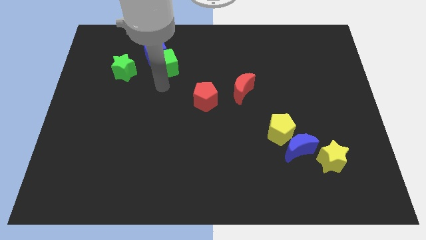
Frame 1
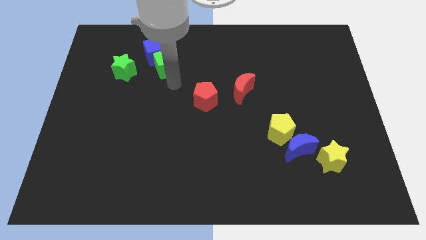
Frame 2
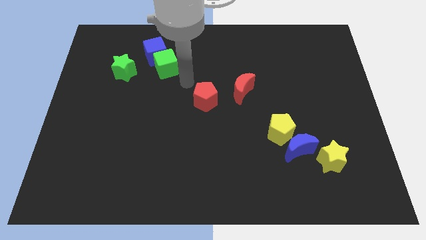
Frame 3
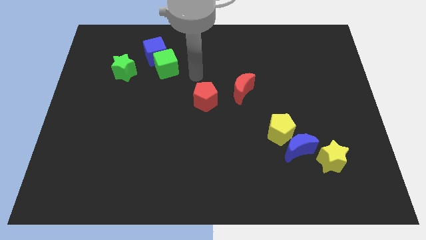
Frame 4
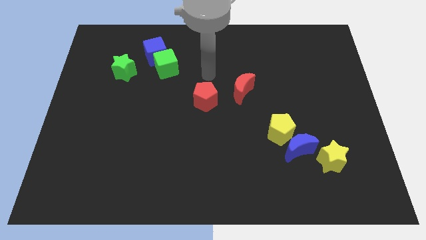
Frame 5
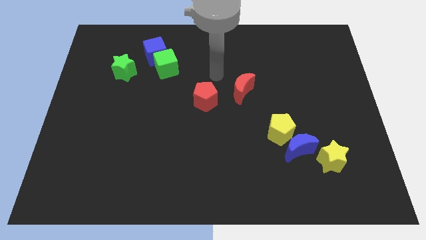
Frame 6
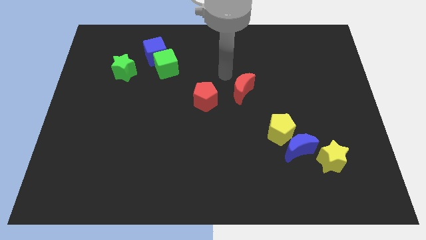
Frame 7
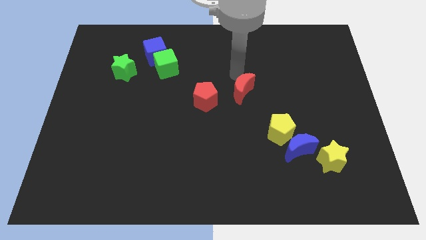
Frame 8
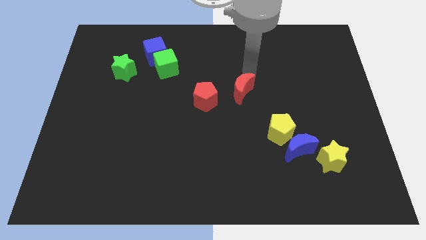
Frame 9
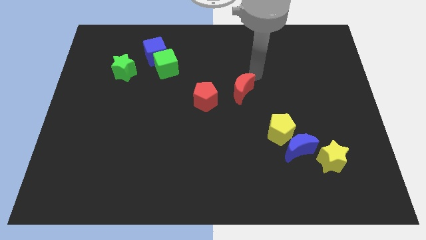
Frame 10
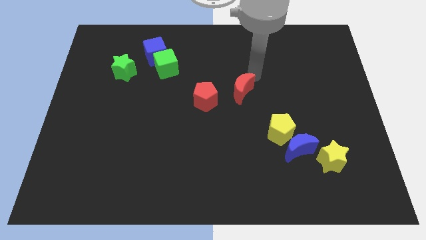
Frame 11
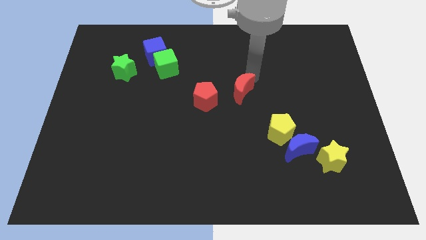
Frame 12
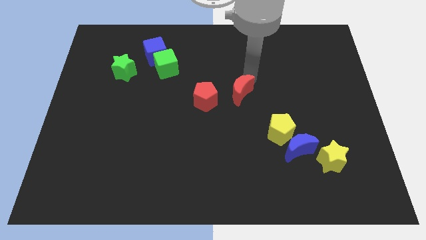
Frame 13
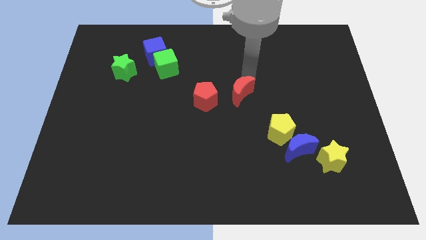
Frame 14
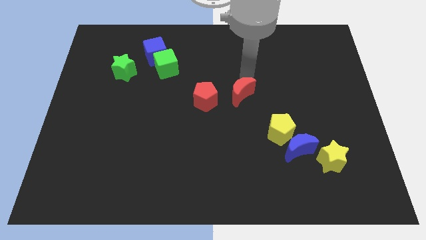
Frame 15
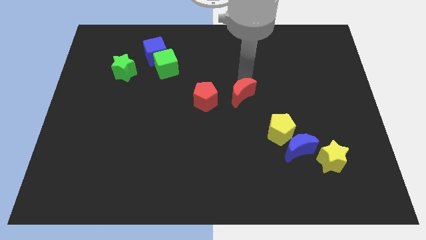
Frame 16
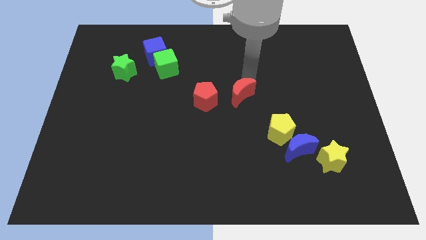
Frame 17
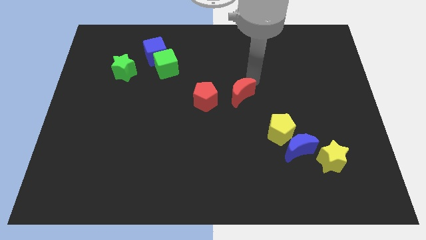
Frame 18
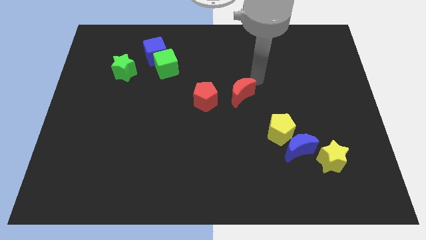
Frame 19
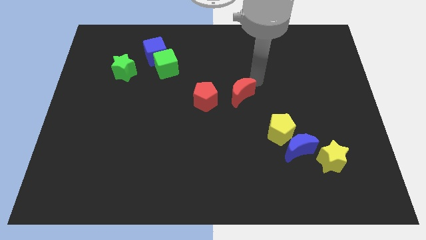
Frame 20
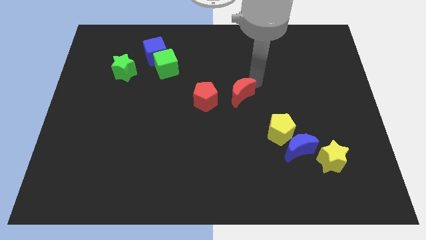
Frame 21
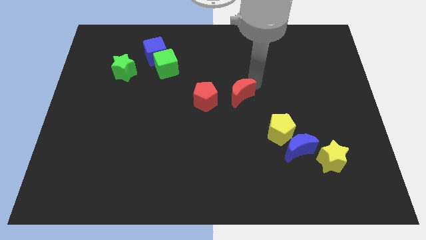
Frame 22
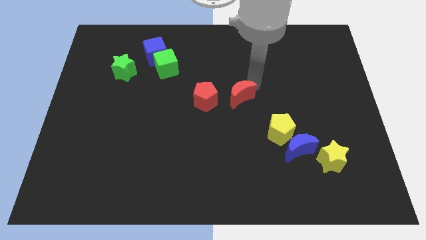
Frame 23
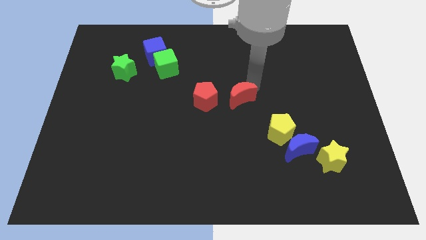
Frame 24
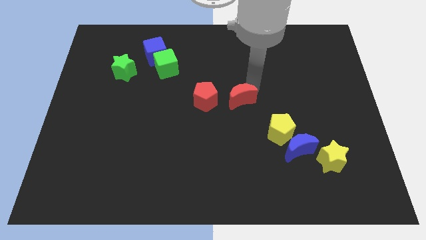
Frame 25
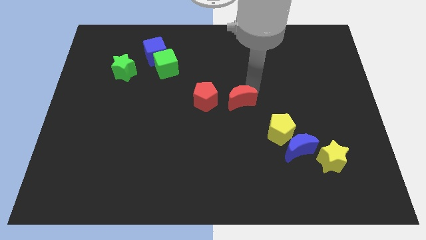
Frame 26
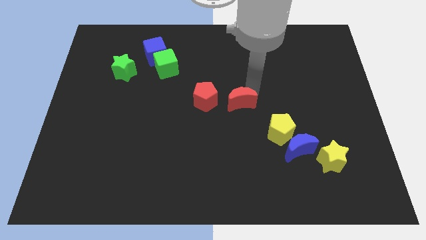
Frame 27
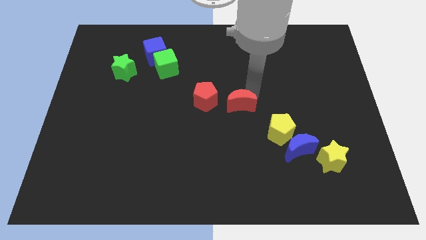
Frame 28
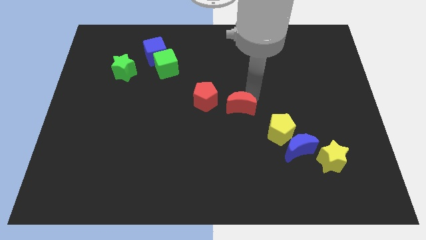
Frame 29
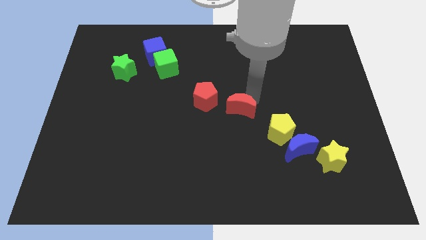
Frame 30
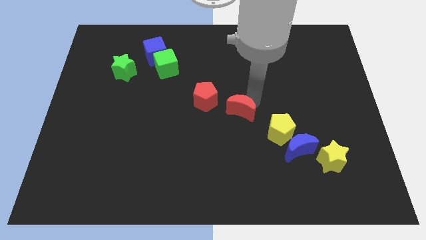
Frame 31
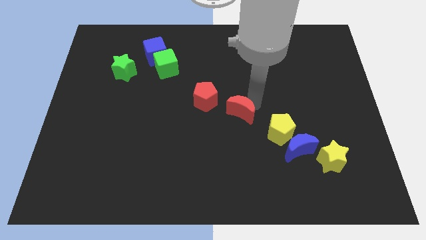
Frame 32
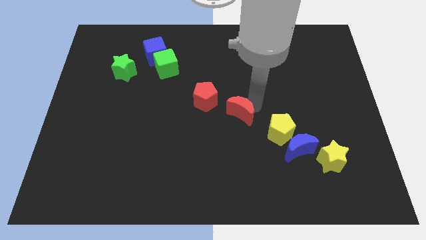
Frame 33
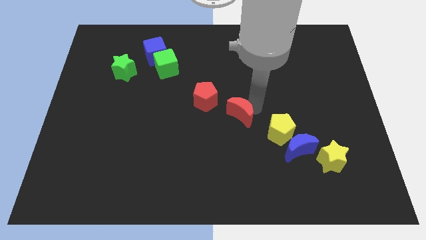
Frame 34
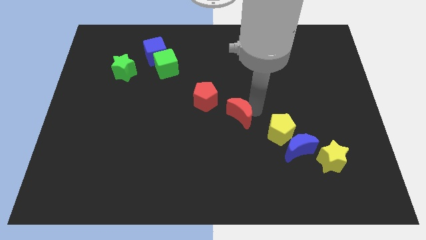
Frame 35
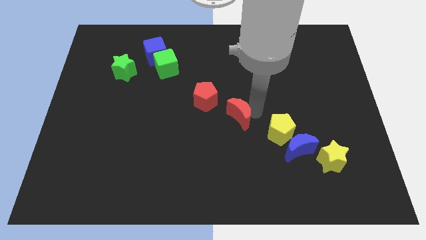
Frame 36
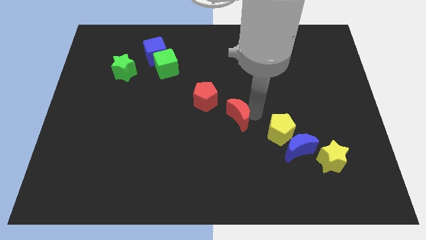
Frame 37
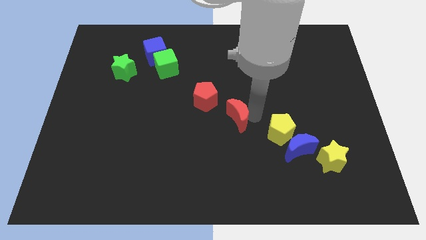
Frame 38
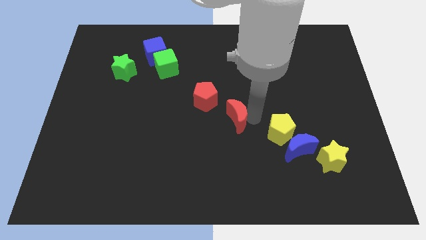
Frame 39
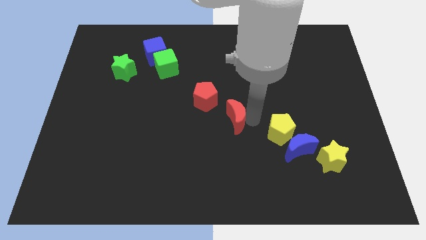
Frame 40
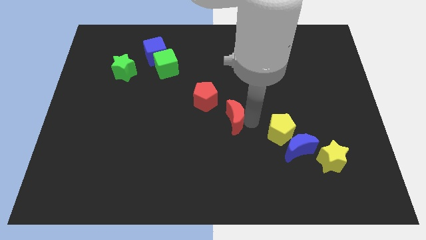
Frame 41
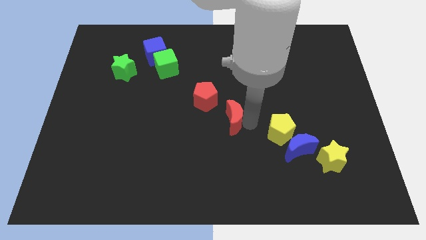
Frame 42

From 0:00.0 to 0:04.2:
slide the red moon a bit downwards and to the left diagonally

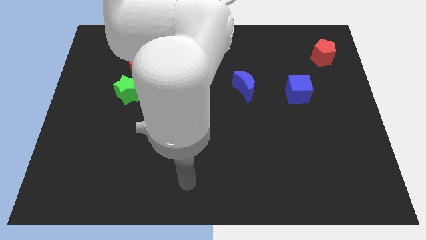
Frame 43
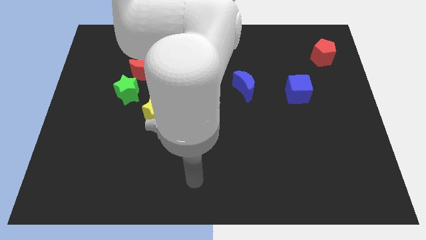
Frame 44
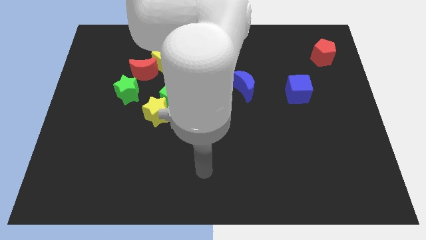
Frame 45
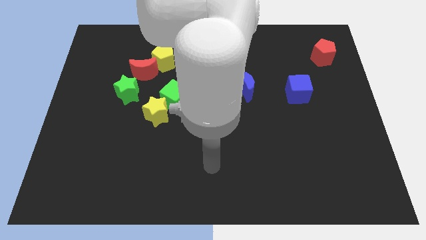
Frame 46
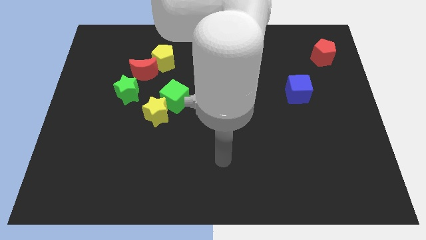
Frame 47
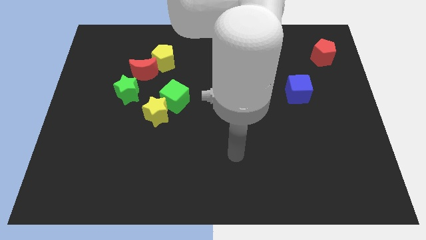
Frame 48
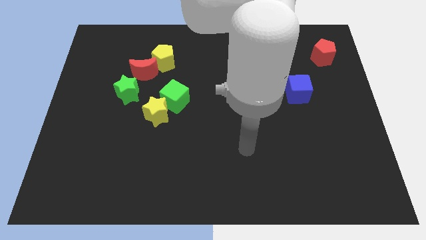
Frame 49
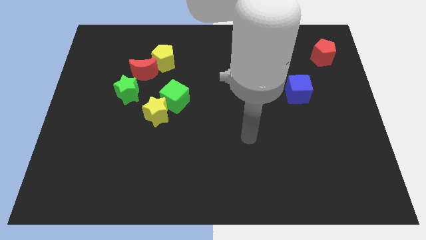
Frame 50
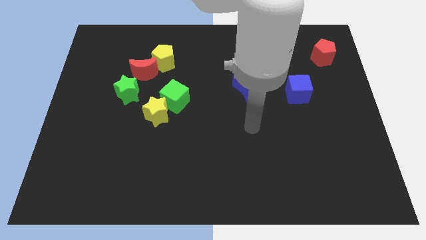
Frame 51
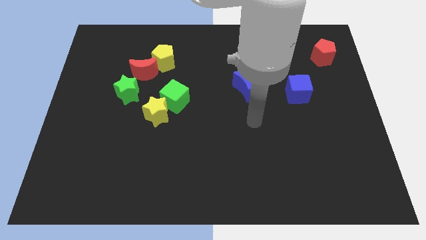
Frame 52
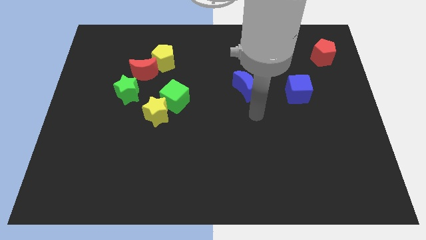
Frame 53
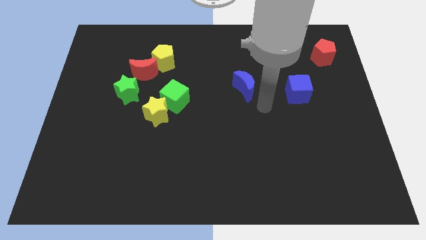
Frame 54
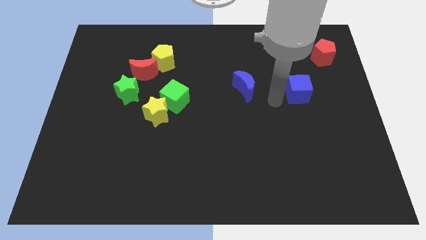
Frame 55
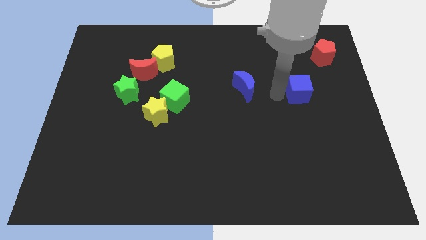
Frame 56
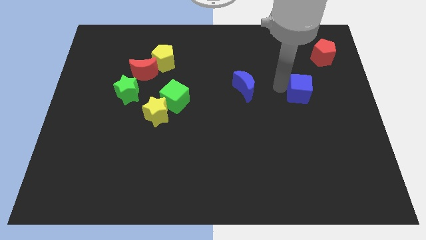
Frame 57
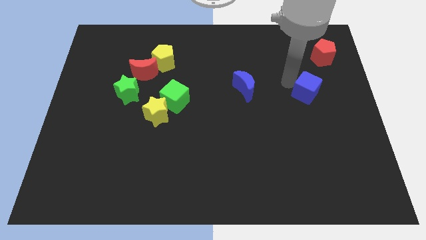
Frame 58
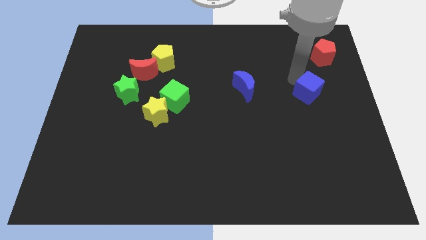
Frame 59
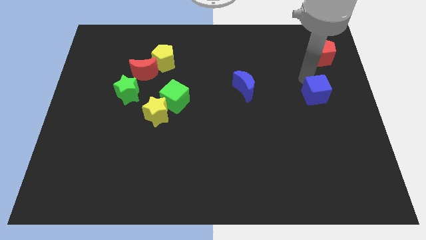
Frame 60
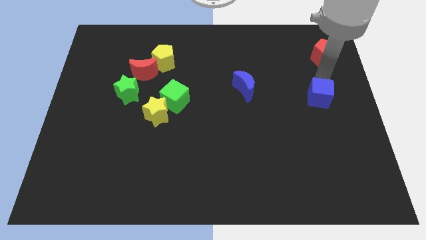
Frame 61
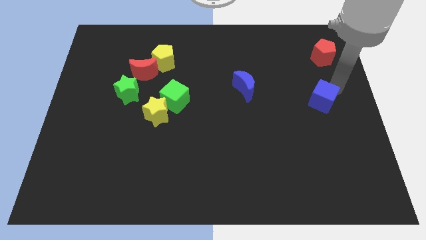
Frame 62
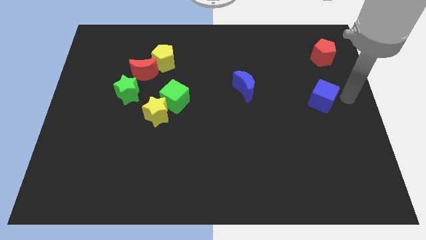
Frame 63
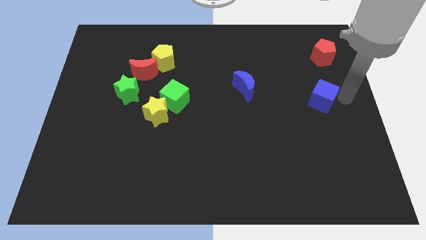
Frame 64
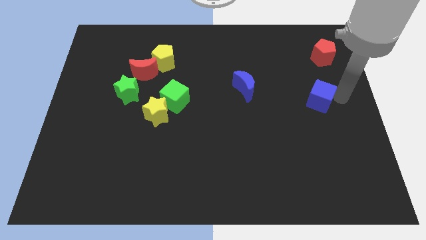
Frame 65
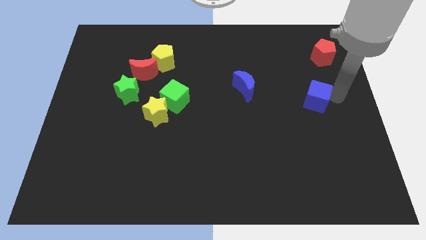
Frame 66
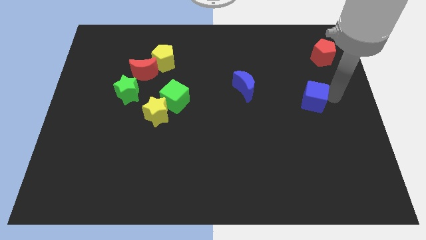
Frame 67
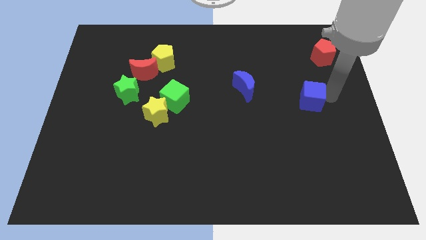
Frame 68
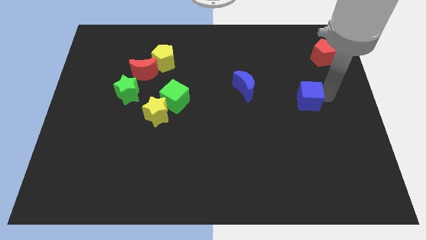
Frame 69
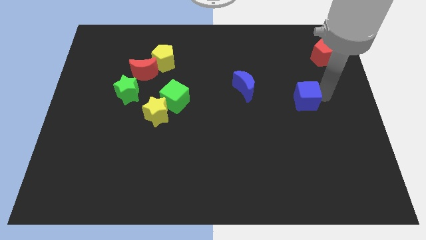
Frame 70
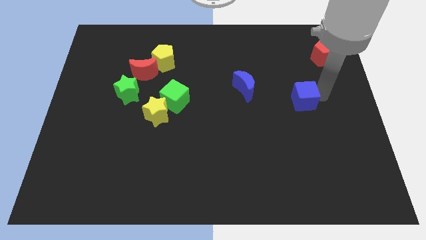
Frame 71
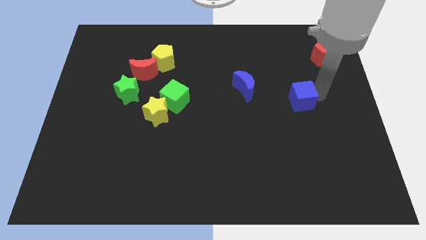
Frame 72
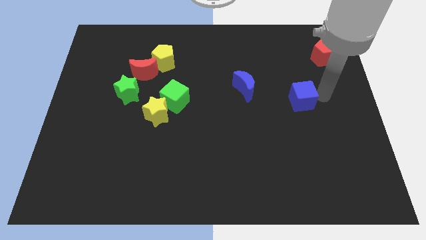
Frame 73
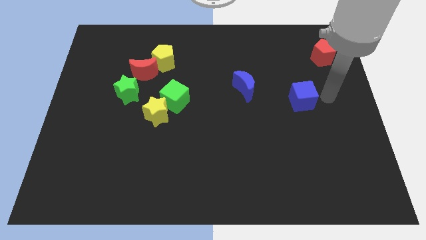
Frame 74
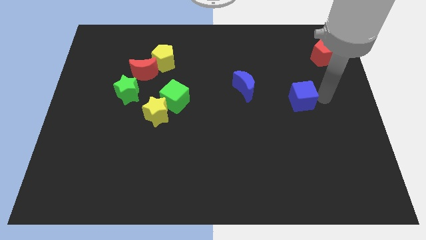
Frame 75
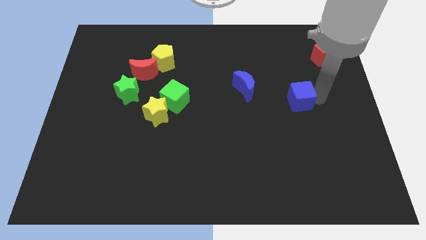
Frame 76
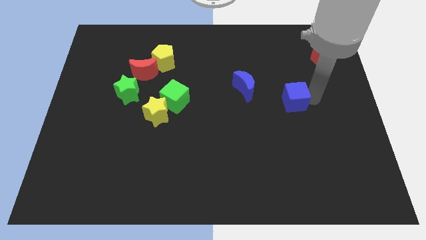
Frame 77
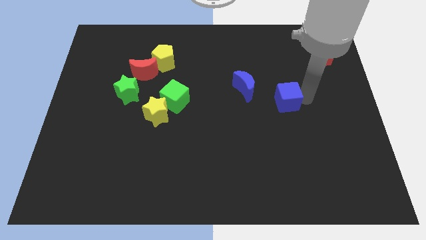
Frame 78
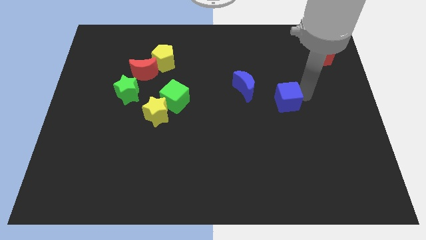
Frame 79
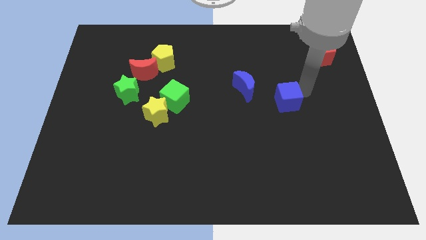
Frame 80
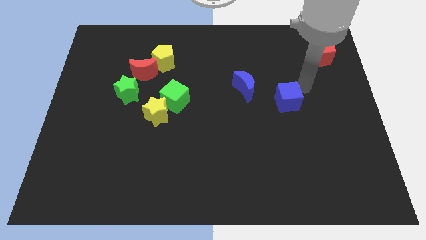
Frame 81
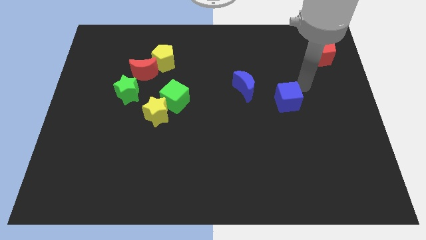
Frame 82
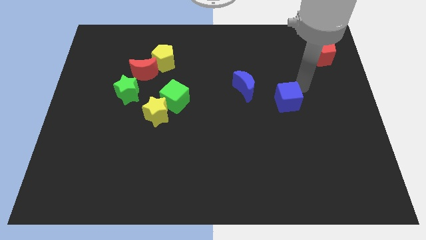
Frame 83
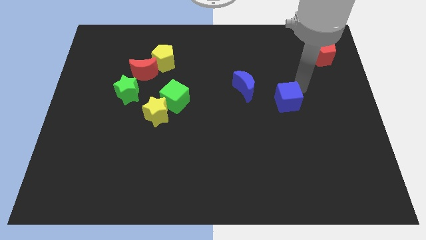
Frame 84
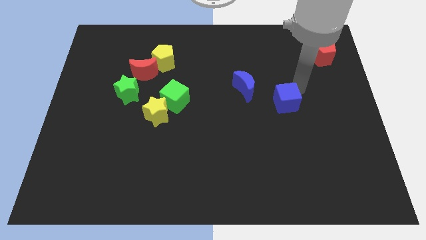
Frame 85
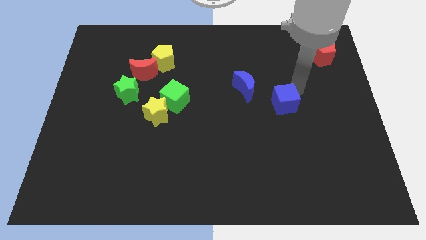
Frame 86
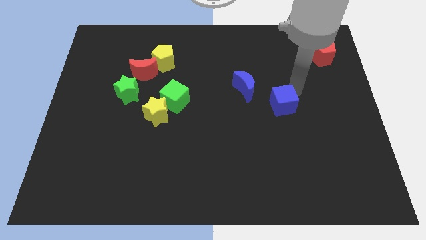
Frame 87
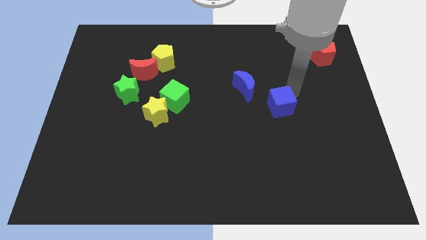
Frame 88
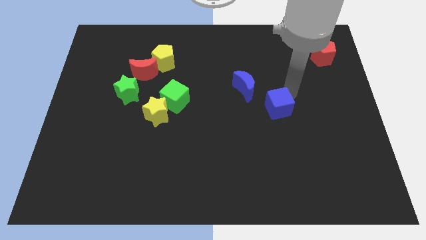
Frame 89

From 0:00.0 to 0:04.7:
move the blue cube a little diagonally downwards and left
